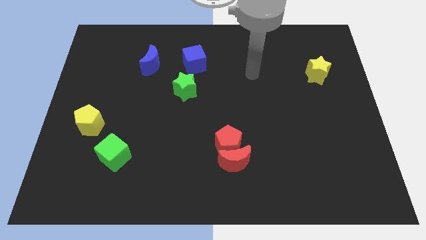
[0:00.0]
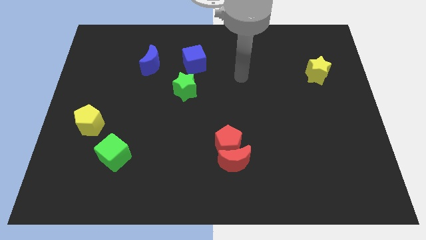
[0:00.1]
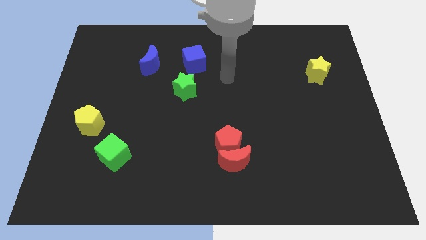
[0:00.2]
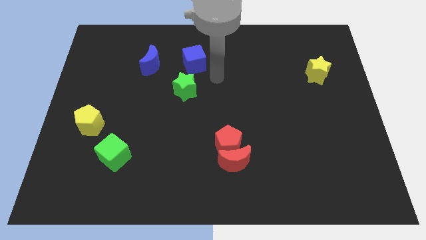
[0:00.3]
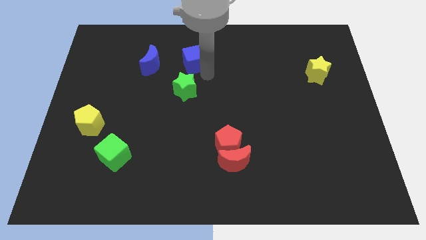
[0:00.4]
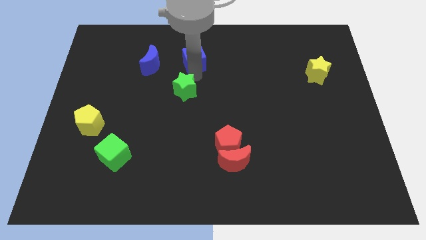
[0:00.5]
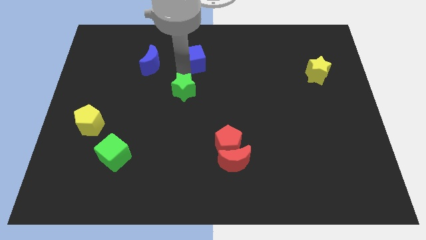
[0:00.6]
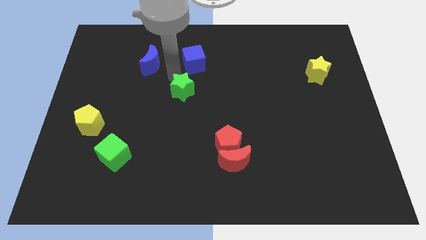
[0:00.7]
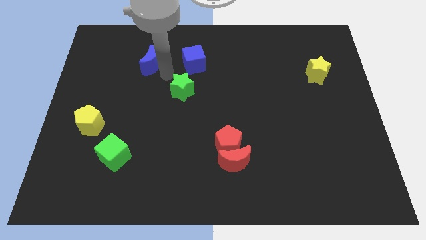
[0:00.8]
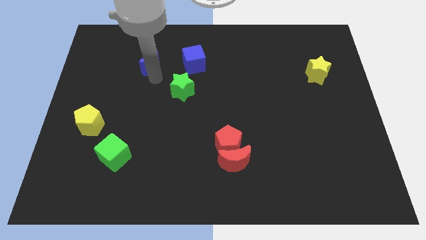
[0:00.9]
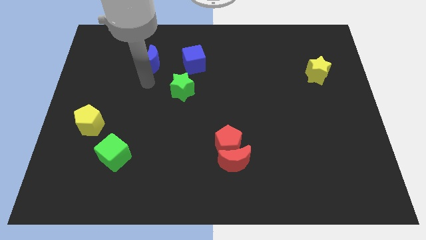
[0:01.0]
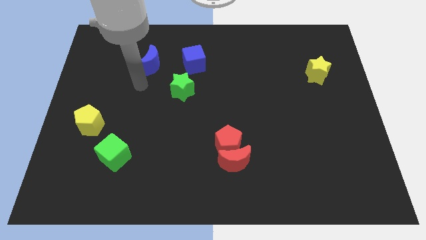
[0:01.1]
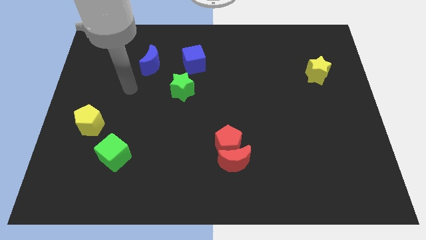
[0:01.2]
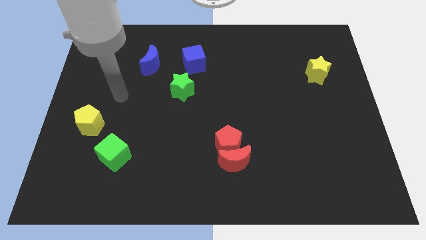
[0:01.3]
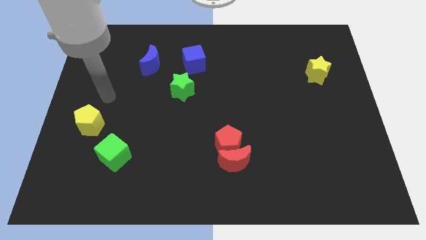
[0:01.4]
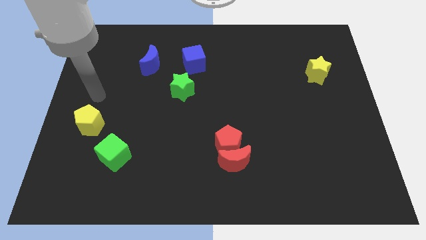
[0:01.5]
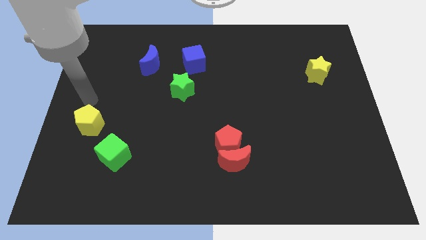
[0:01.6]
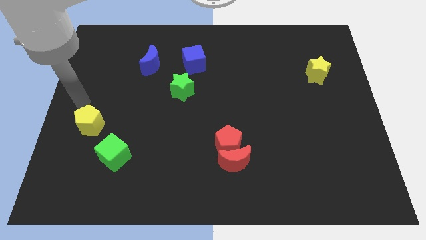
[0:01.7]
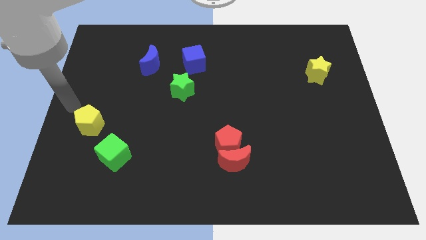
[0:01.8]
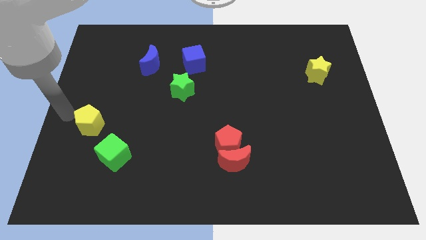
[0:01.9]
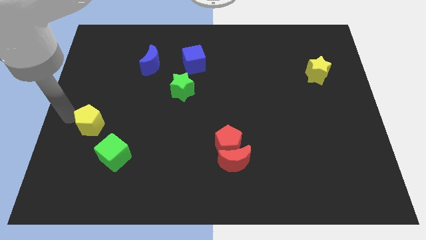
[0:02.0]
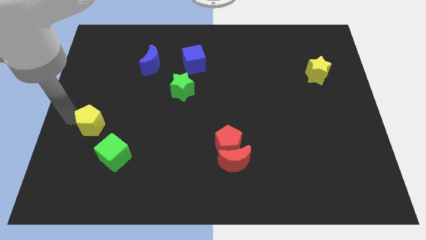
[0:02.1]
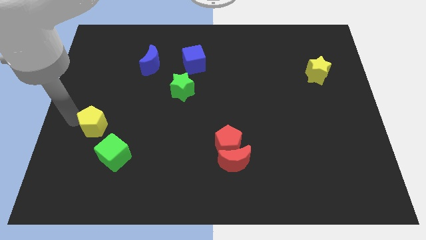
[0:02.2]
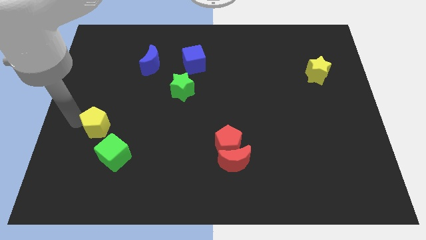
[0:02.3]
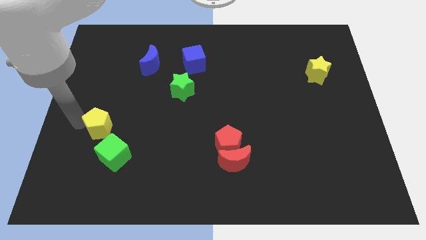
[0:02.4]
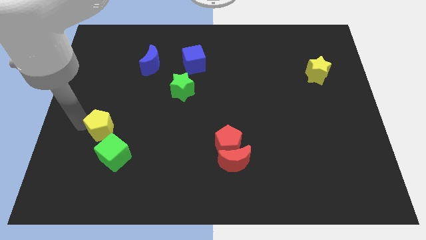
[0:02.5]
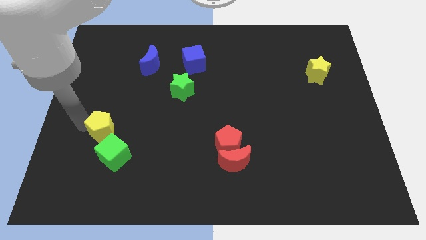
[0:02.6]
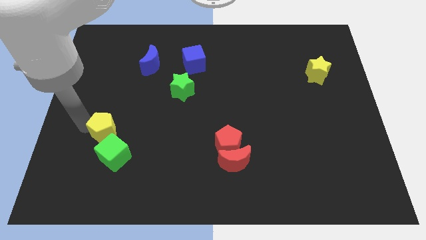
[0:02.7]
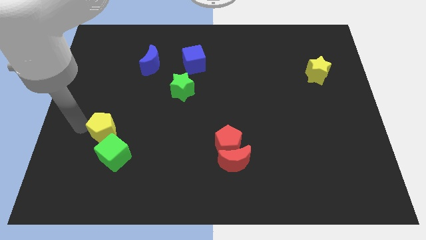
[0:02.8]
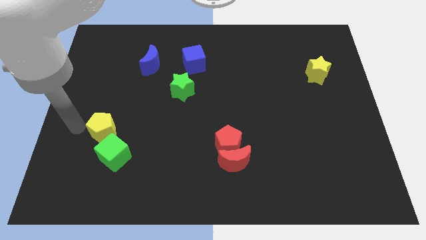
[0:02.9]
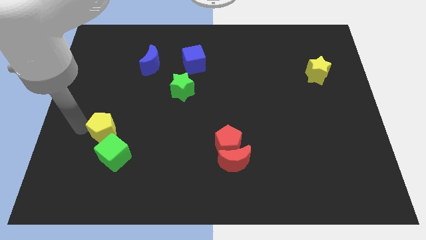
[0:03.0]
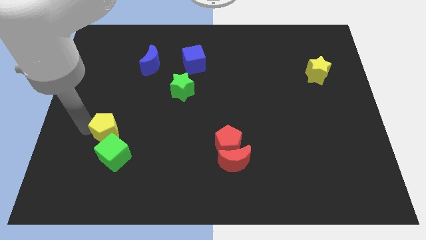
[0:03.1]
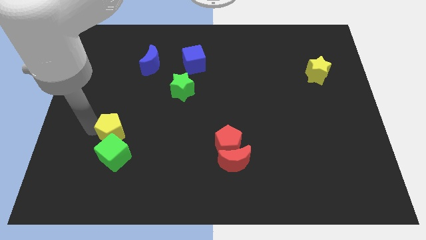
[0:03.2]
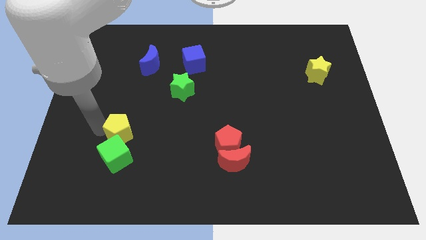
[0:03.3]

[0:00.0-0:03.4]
slide the yellow pentagon somewhat to the right

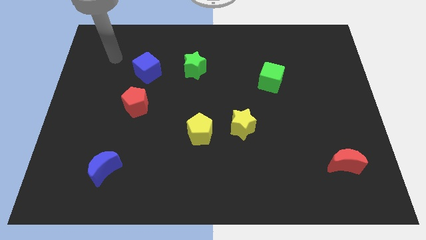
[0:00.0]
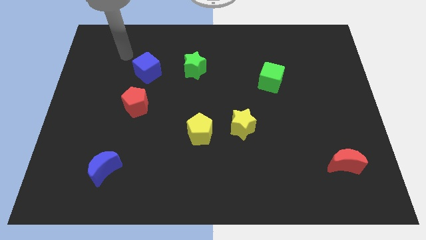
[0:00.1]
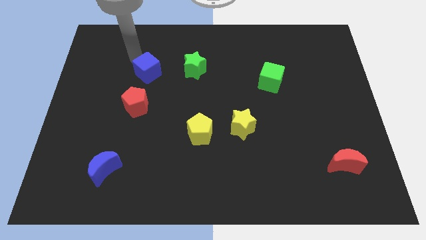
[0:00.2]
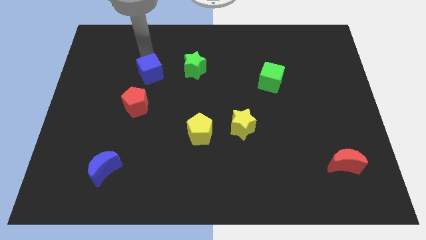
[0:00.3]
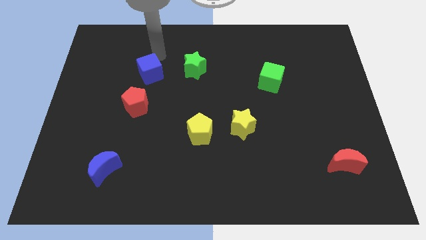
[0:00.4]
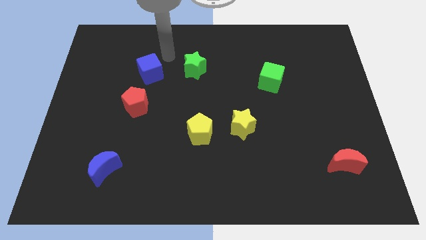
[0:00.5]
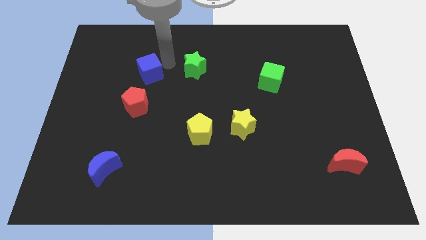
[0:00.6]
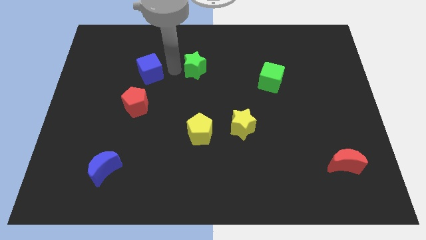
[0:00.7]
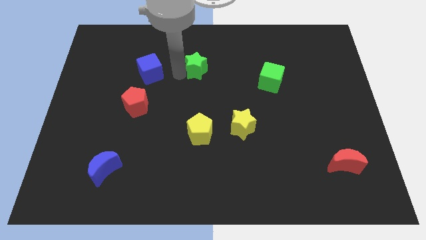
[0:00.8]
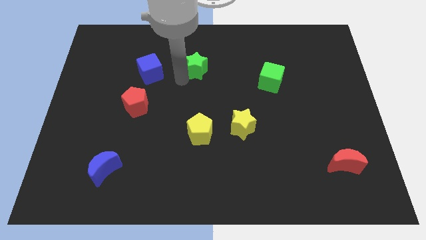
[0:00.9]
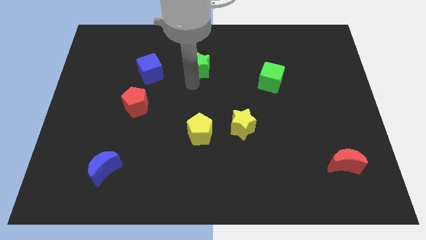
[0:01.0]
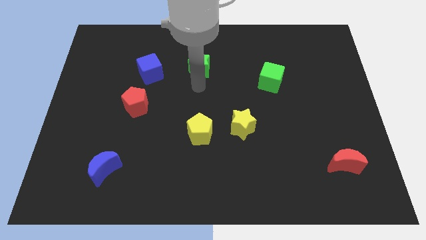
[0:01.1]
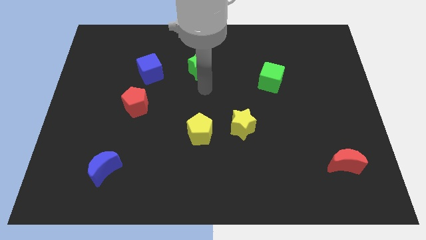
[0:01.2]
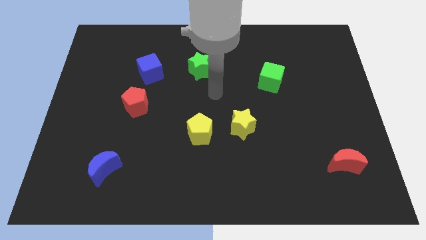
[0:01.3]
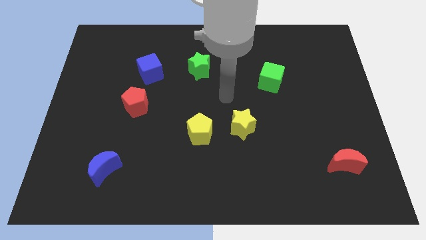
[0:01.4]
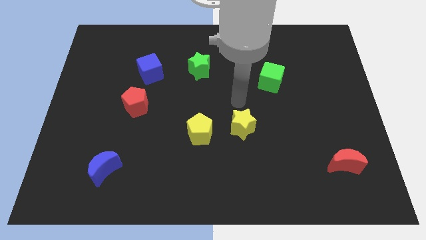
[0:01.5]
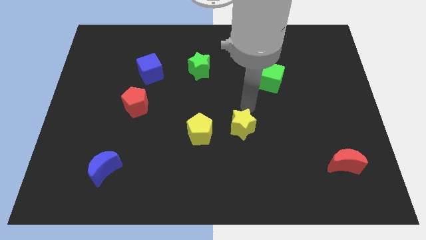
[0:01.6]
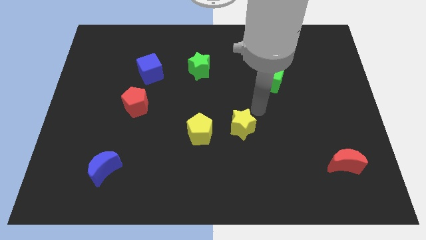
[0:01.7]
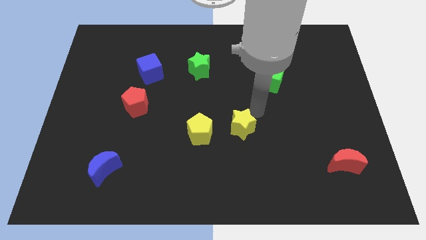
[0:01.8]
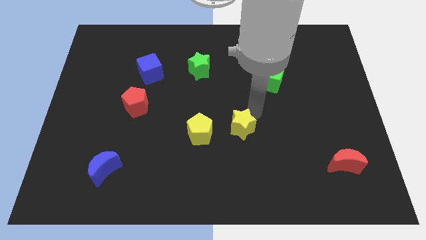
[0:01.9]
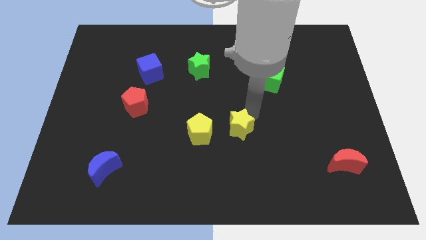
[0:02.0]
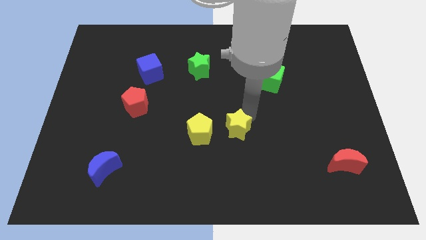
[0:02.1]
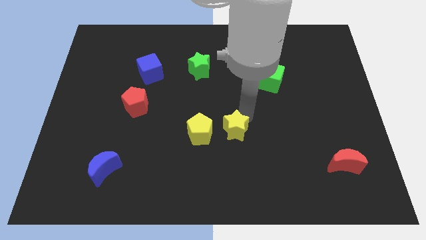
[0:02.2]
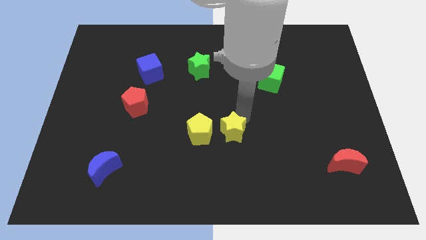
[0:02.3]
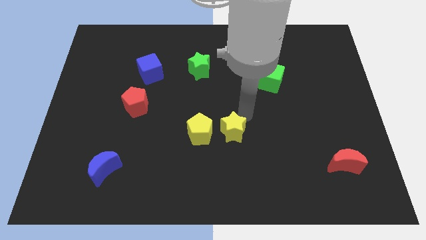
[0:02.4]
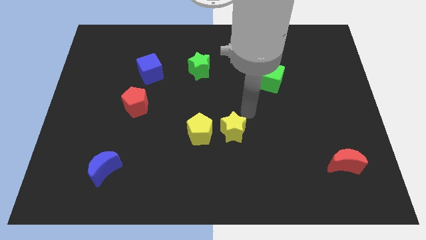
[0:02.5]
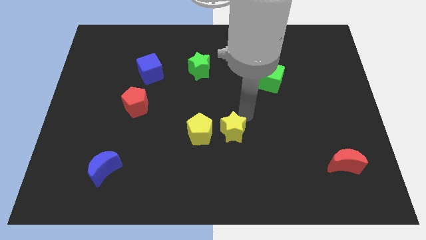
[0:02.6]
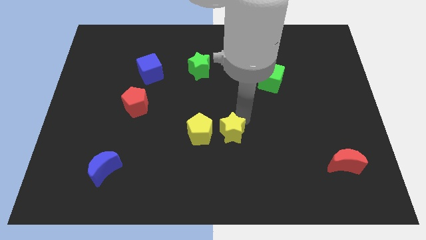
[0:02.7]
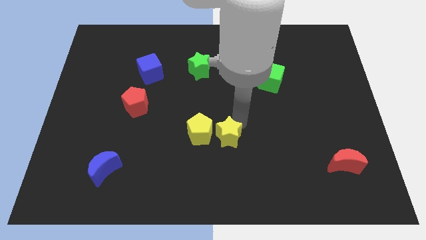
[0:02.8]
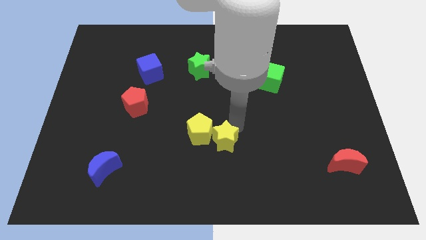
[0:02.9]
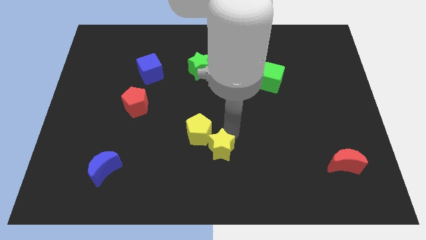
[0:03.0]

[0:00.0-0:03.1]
slightly move the yellow star down and left

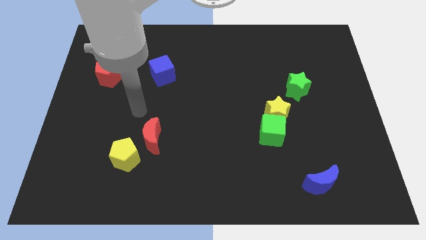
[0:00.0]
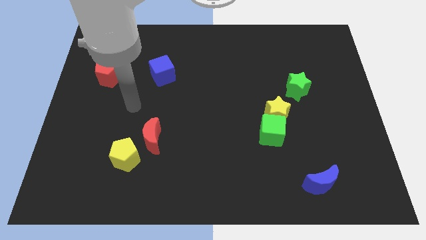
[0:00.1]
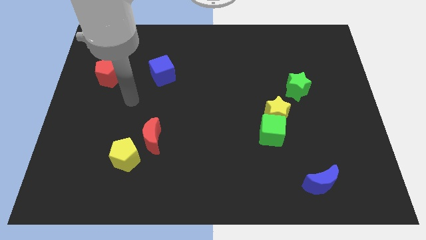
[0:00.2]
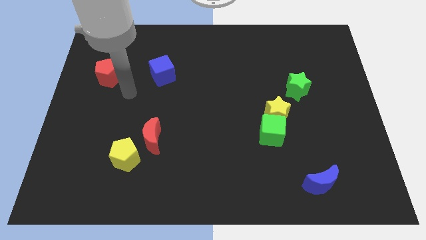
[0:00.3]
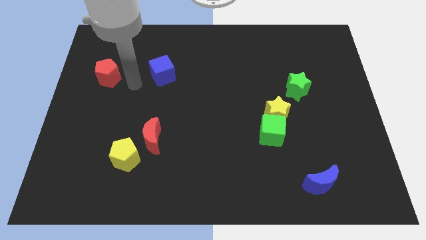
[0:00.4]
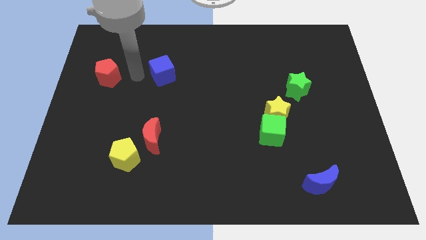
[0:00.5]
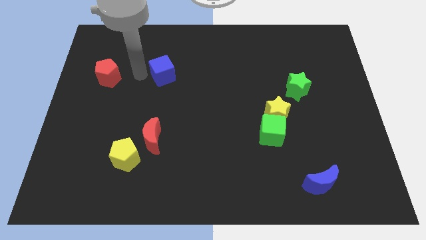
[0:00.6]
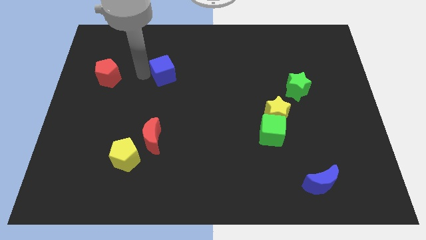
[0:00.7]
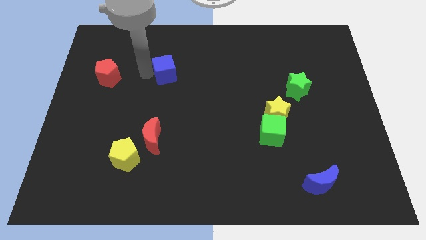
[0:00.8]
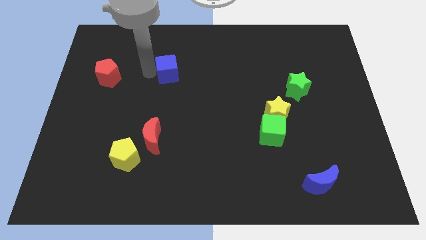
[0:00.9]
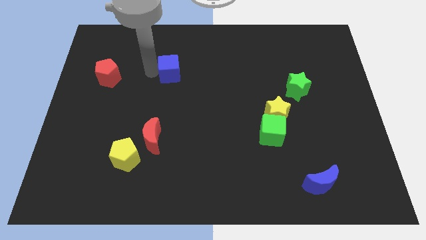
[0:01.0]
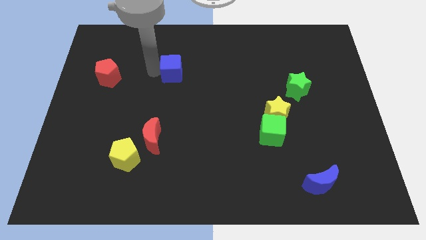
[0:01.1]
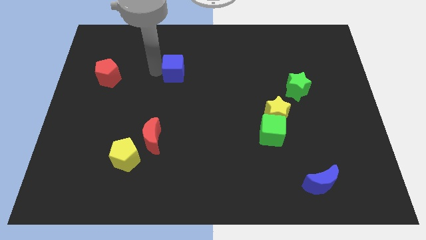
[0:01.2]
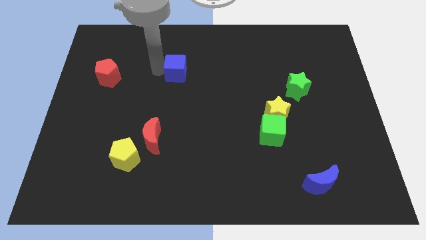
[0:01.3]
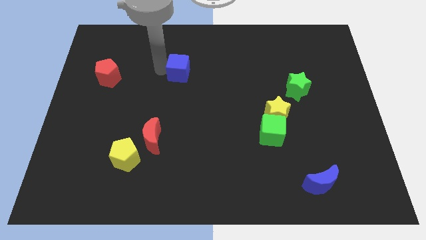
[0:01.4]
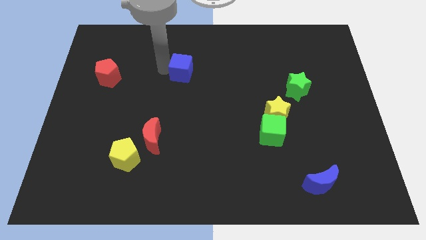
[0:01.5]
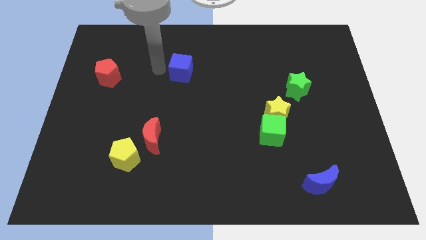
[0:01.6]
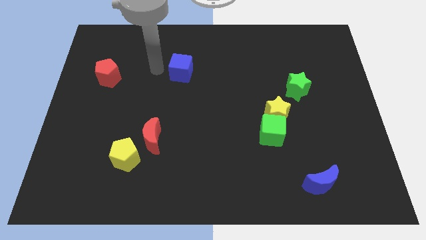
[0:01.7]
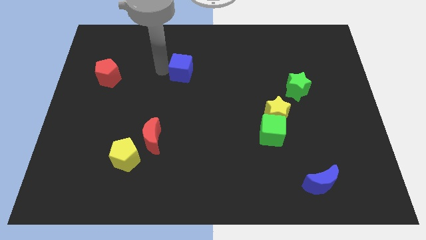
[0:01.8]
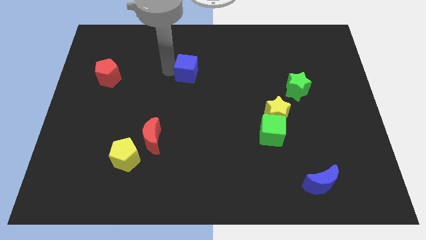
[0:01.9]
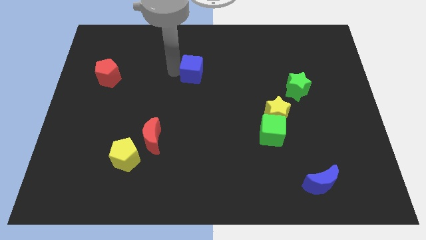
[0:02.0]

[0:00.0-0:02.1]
slide the blue cube a little bit to the right
